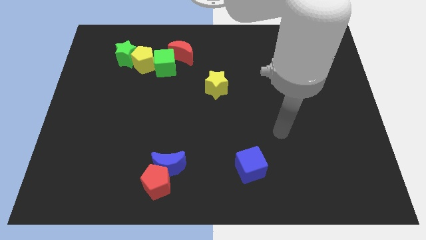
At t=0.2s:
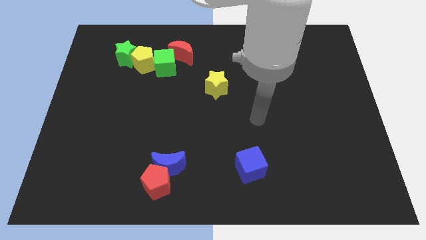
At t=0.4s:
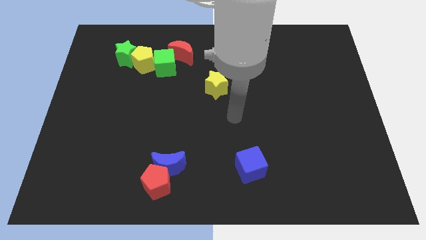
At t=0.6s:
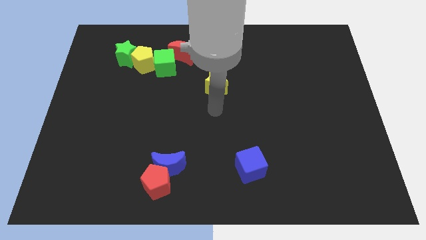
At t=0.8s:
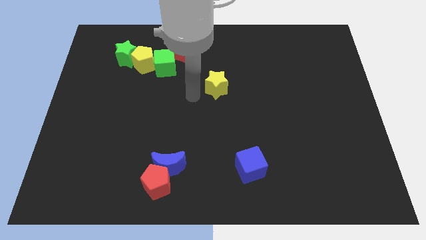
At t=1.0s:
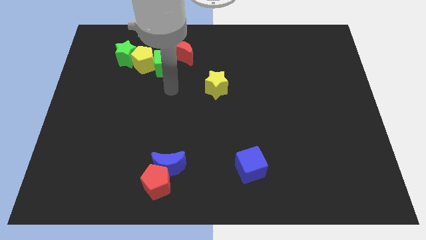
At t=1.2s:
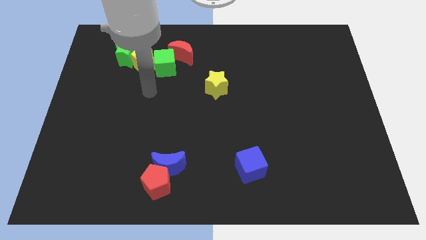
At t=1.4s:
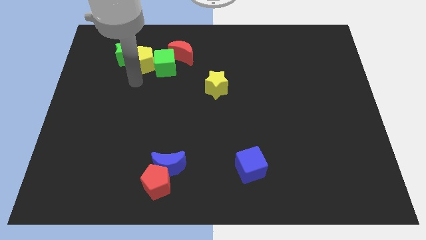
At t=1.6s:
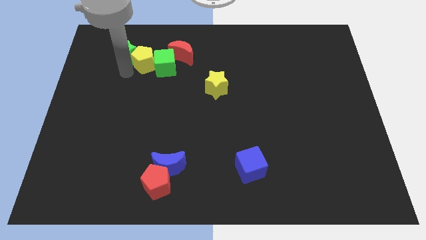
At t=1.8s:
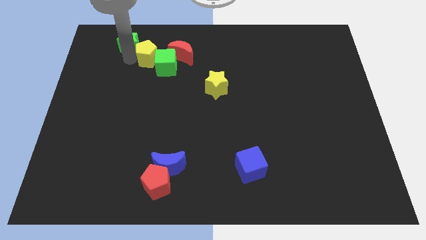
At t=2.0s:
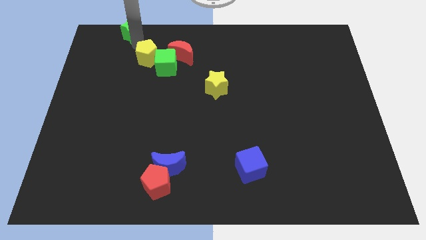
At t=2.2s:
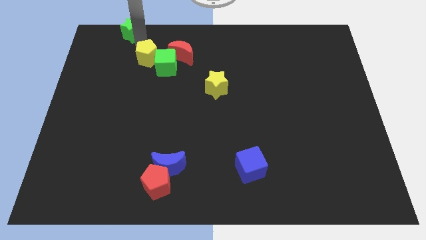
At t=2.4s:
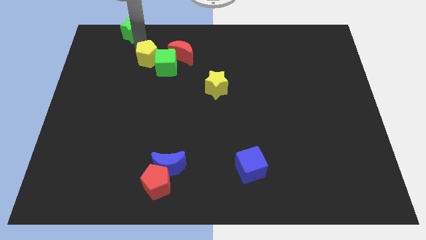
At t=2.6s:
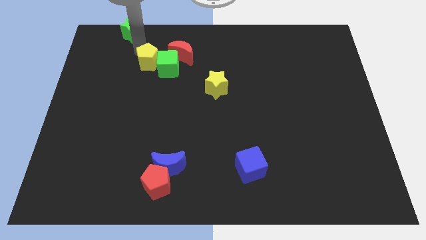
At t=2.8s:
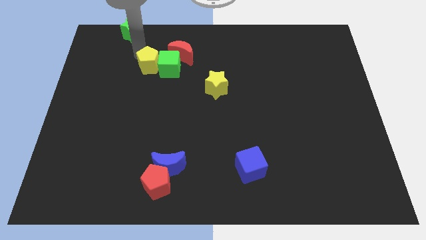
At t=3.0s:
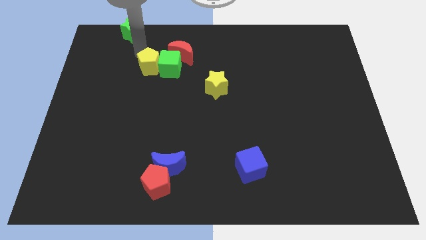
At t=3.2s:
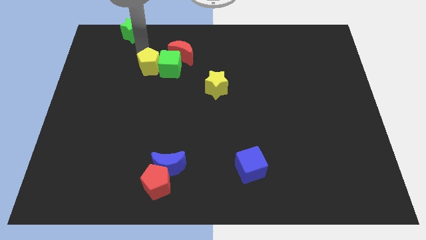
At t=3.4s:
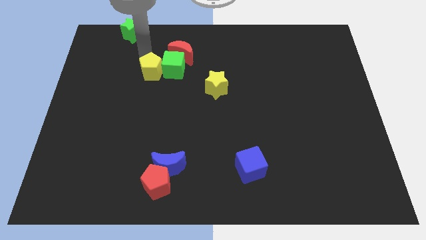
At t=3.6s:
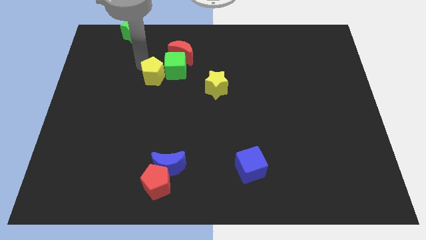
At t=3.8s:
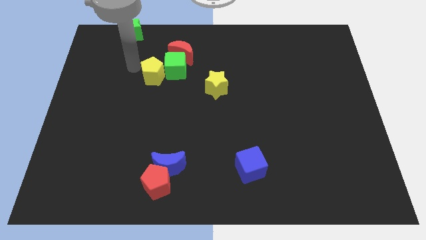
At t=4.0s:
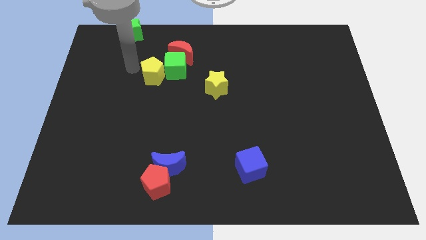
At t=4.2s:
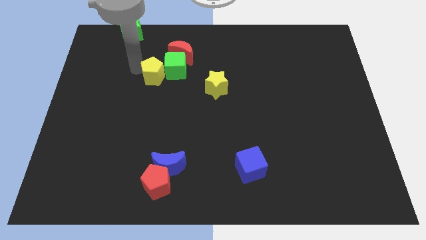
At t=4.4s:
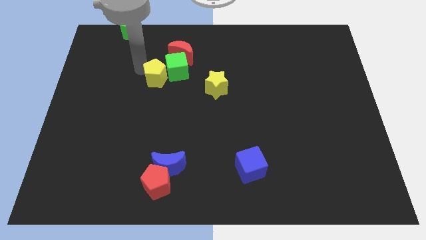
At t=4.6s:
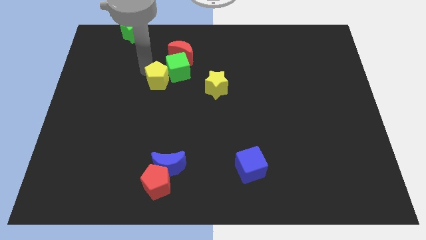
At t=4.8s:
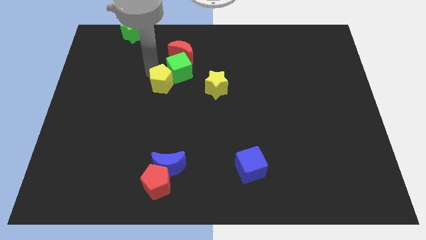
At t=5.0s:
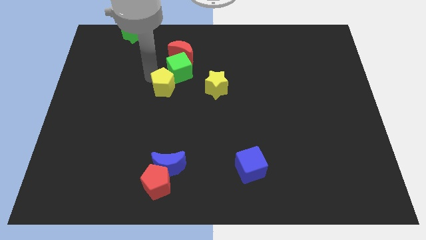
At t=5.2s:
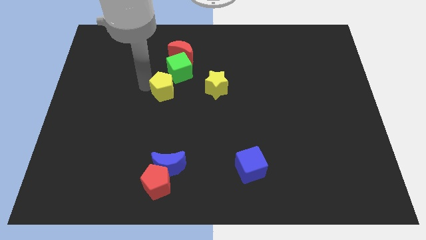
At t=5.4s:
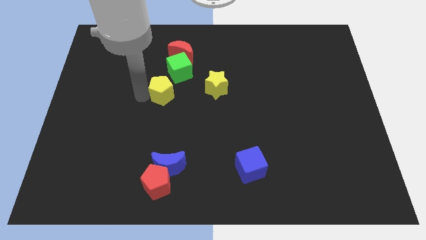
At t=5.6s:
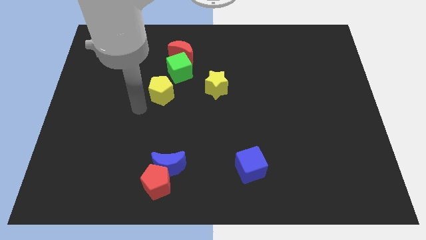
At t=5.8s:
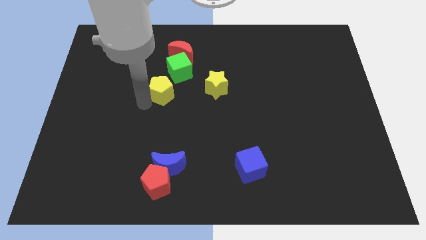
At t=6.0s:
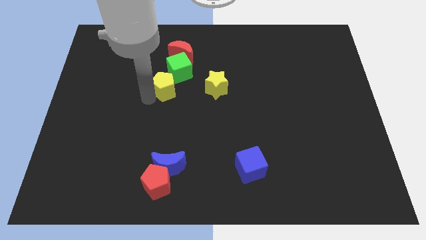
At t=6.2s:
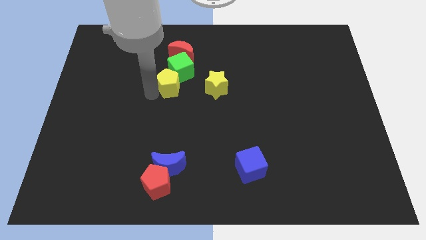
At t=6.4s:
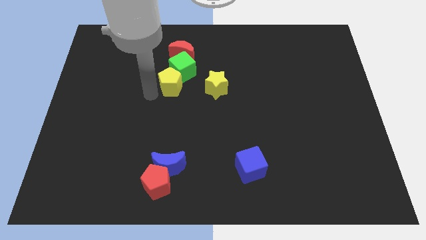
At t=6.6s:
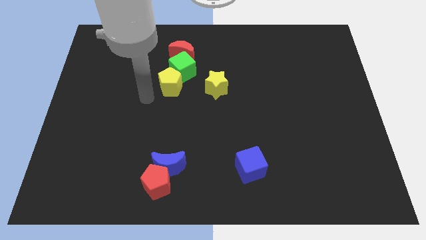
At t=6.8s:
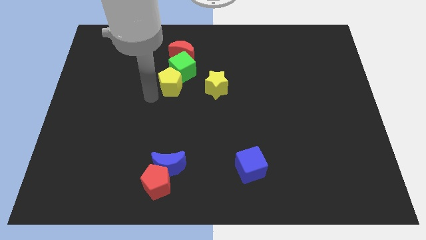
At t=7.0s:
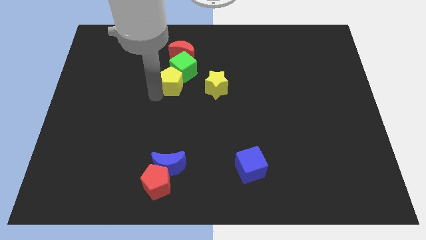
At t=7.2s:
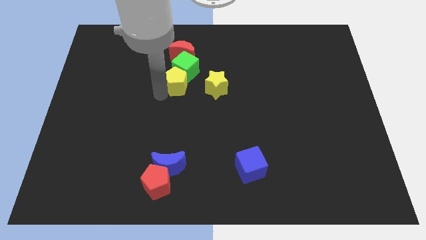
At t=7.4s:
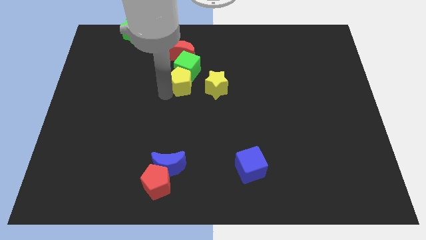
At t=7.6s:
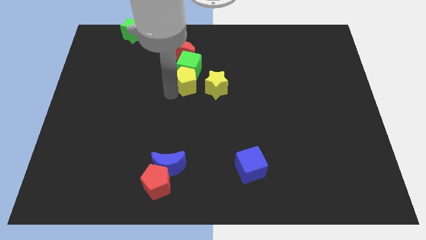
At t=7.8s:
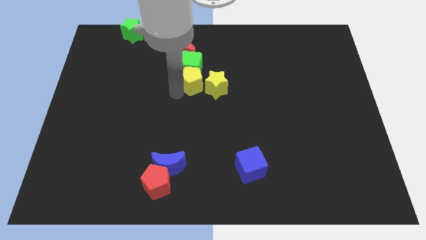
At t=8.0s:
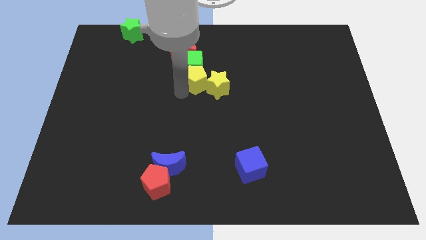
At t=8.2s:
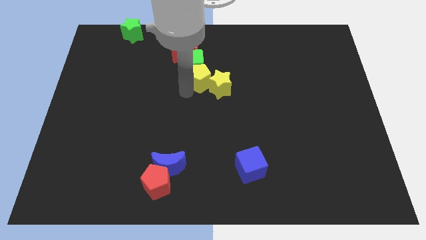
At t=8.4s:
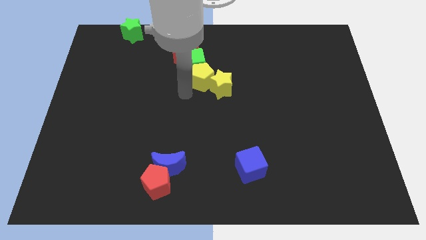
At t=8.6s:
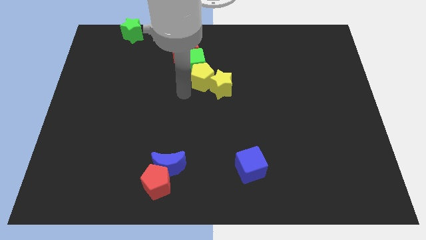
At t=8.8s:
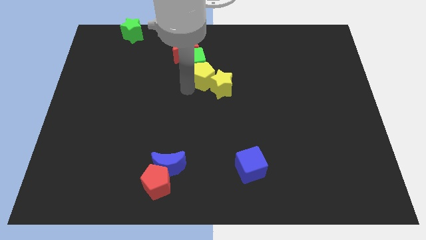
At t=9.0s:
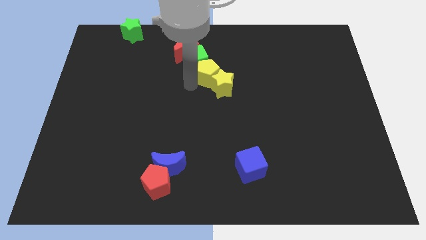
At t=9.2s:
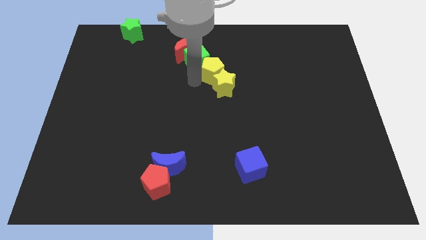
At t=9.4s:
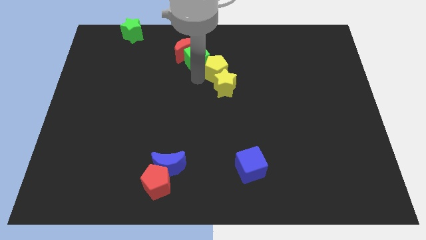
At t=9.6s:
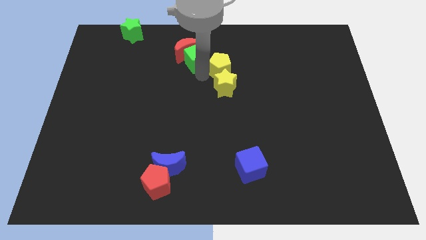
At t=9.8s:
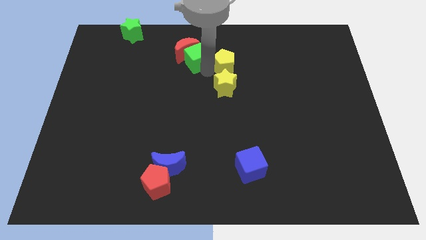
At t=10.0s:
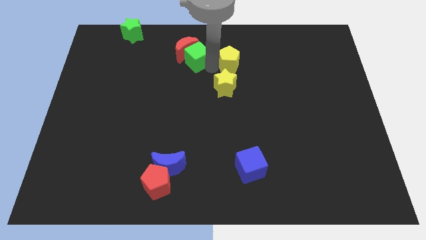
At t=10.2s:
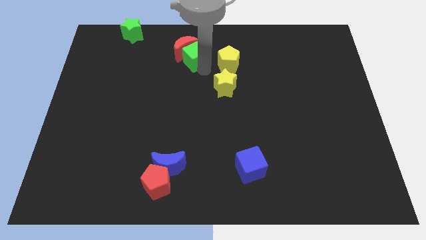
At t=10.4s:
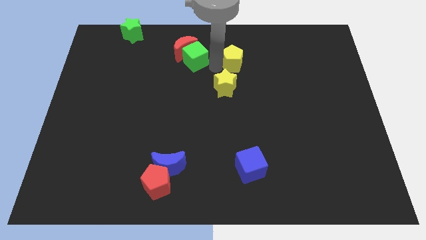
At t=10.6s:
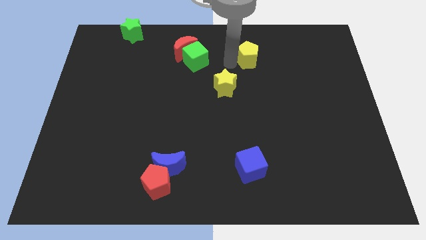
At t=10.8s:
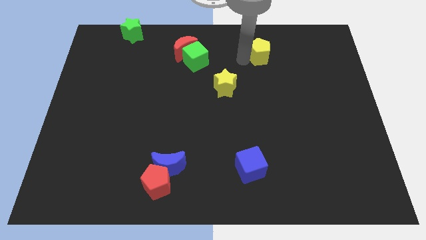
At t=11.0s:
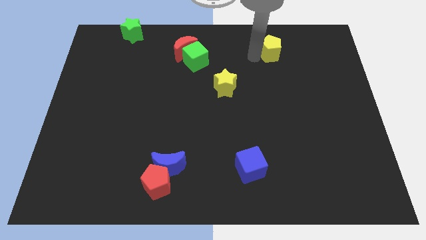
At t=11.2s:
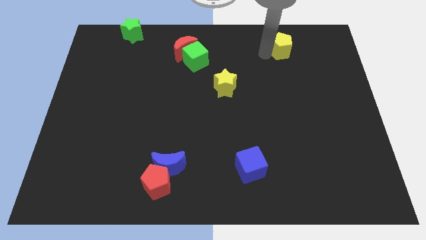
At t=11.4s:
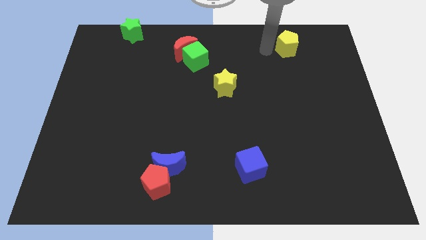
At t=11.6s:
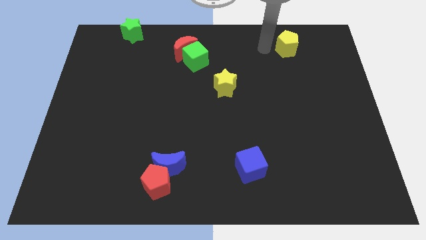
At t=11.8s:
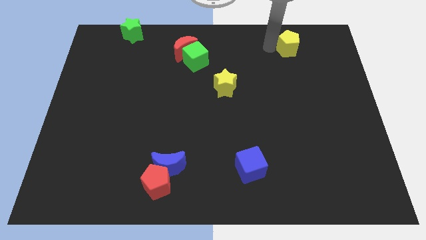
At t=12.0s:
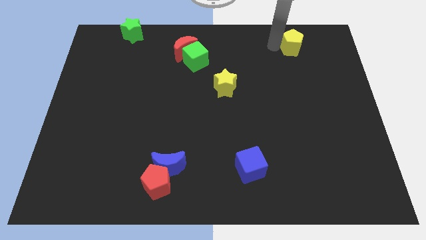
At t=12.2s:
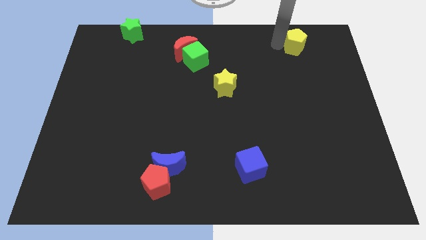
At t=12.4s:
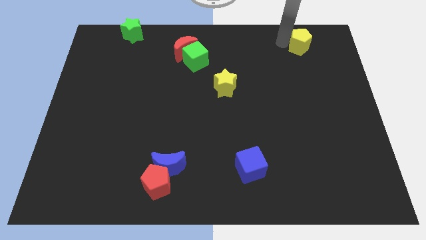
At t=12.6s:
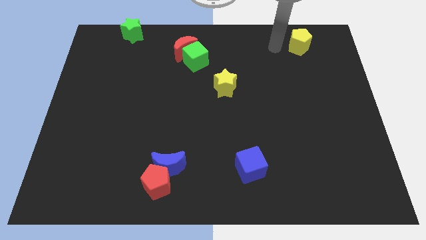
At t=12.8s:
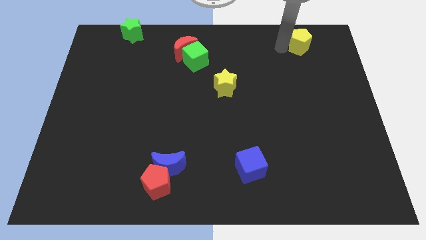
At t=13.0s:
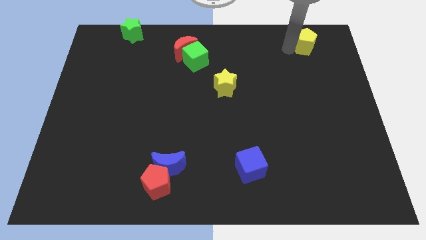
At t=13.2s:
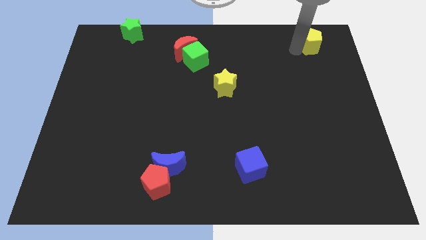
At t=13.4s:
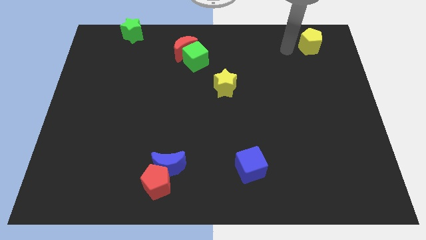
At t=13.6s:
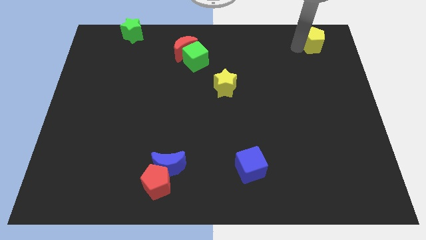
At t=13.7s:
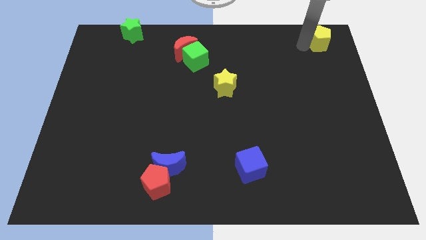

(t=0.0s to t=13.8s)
slide the yellow pentagon to the upper right corner
